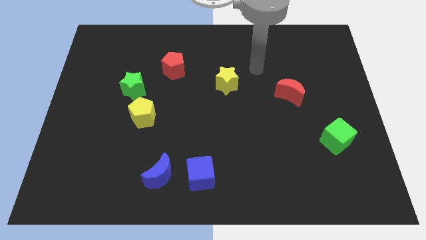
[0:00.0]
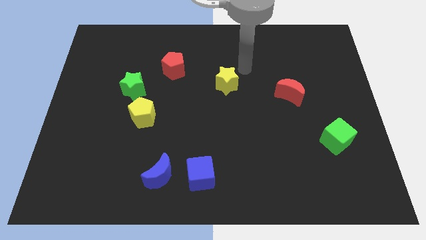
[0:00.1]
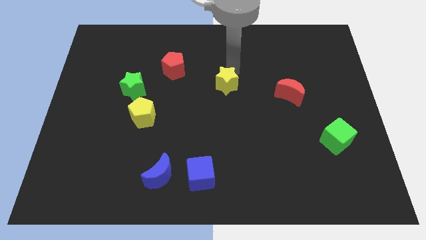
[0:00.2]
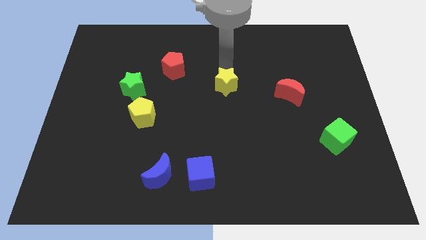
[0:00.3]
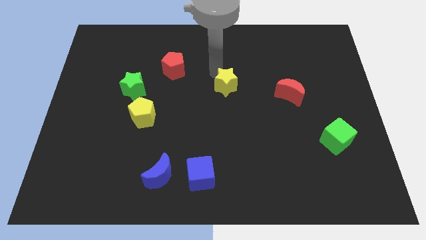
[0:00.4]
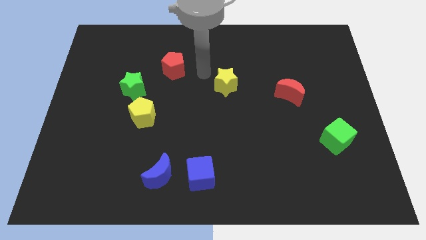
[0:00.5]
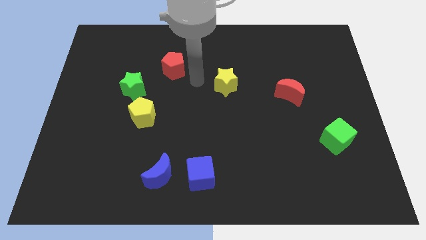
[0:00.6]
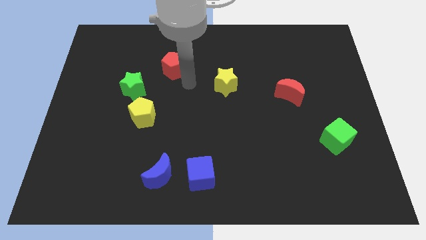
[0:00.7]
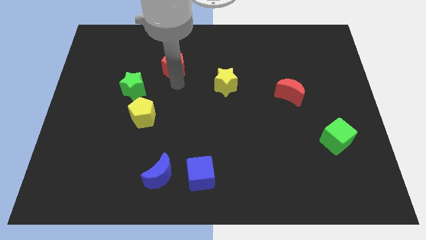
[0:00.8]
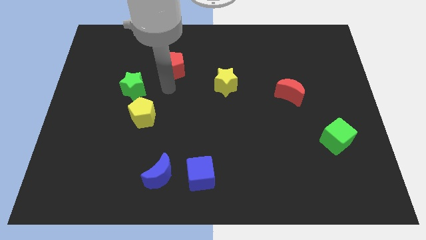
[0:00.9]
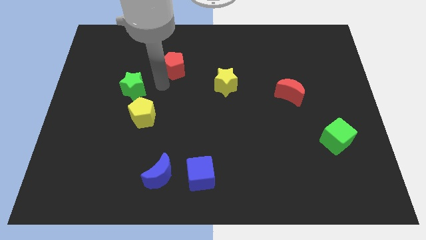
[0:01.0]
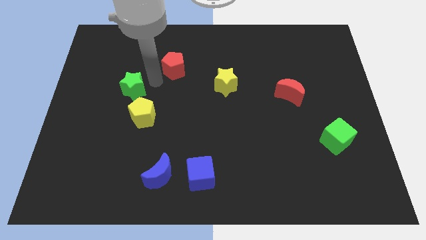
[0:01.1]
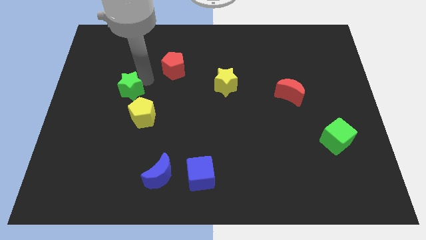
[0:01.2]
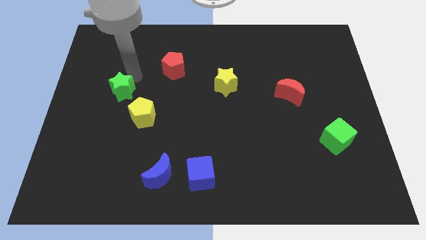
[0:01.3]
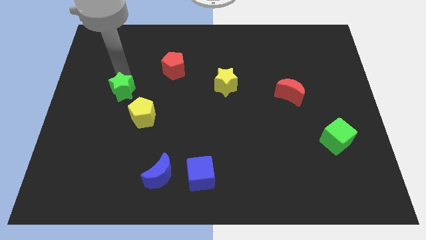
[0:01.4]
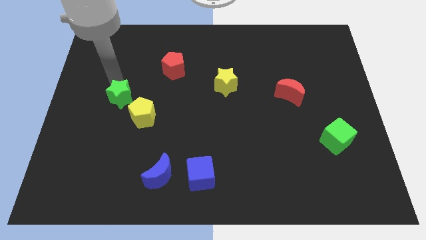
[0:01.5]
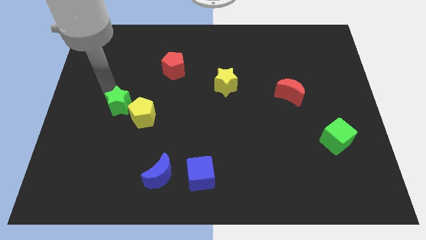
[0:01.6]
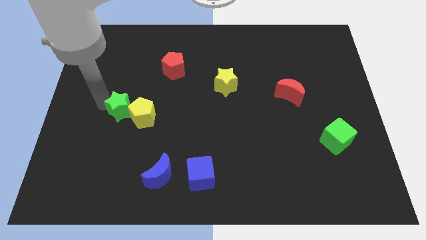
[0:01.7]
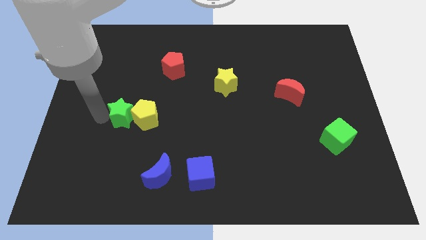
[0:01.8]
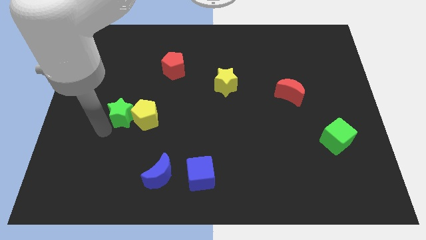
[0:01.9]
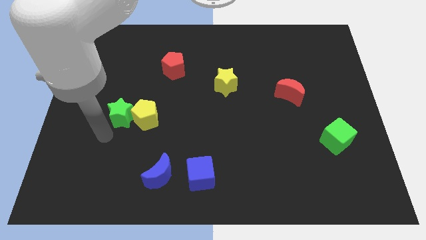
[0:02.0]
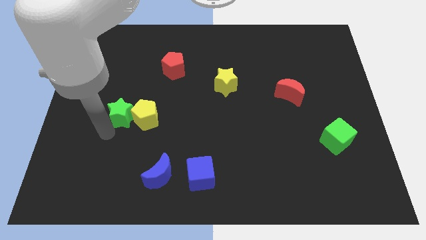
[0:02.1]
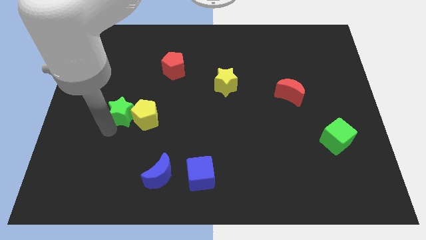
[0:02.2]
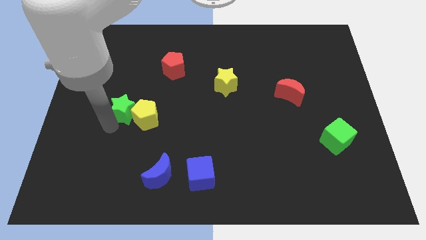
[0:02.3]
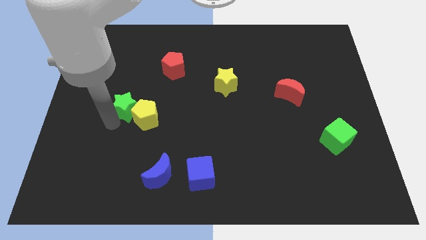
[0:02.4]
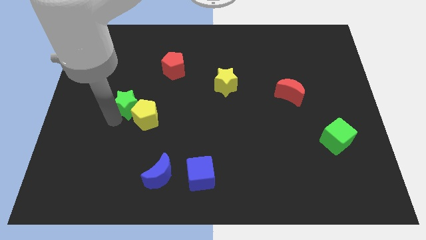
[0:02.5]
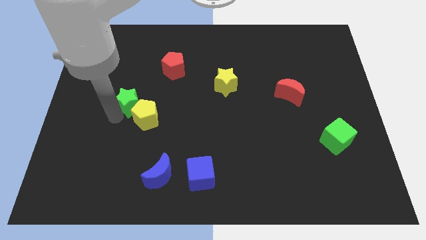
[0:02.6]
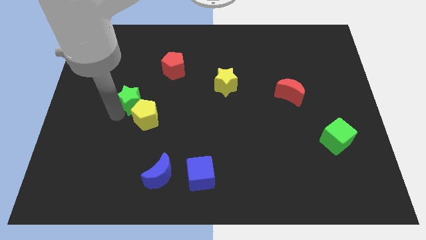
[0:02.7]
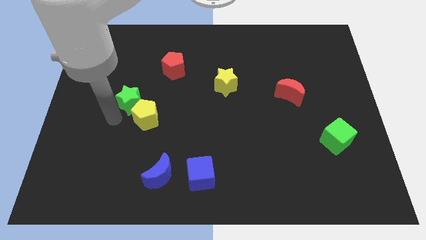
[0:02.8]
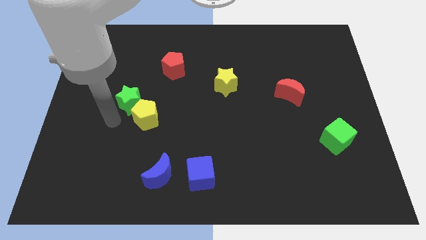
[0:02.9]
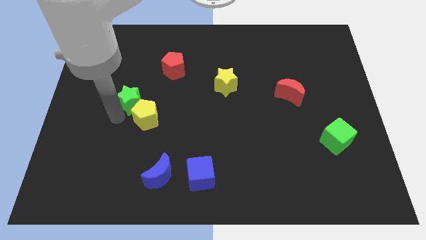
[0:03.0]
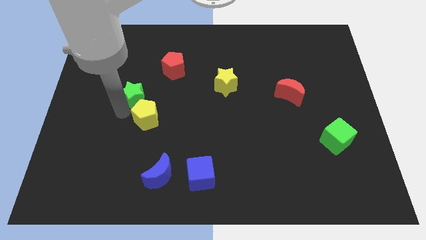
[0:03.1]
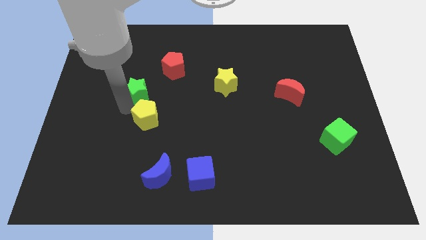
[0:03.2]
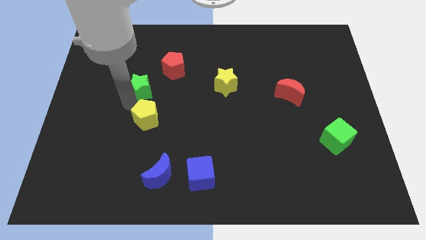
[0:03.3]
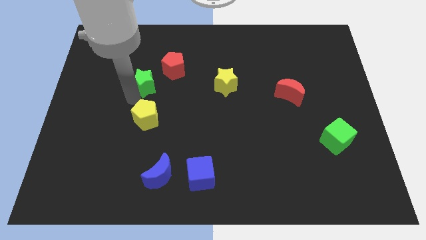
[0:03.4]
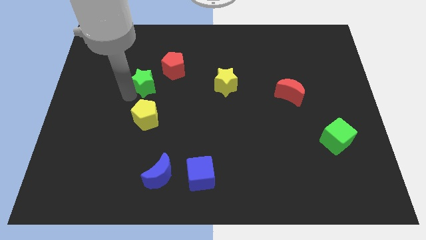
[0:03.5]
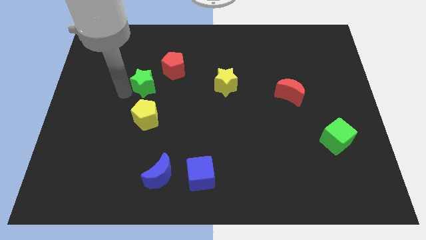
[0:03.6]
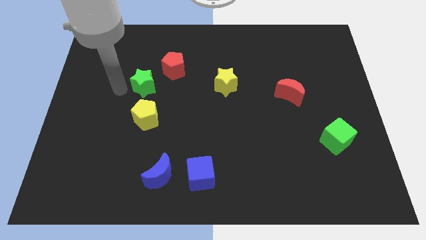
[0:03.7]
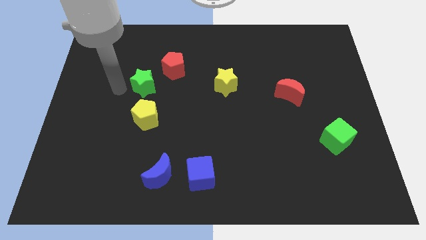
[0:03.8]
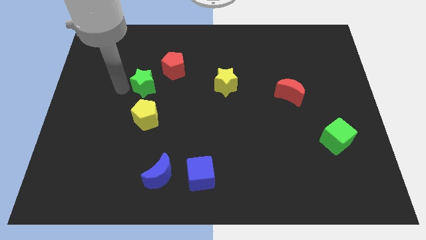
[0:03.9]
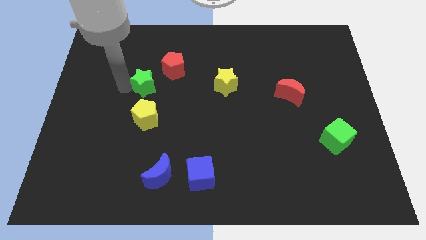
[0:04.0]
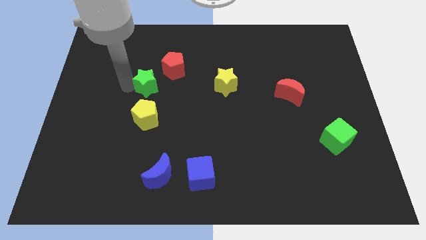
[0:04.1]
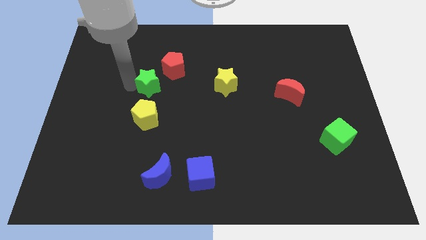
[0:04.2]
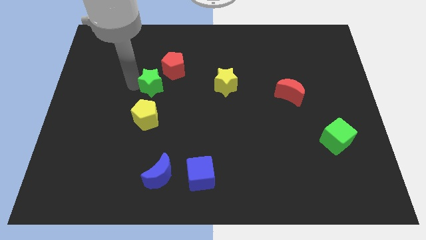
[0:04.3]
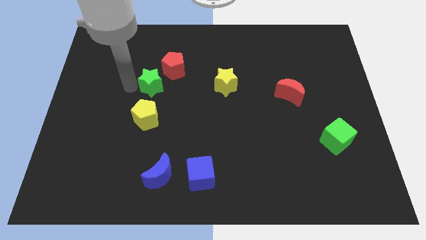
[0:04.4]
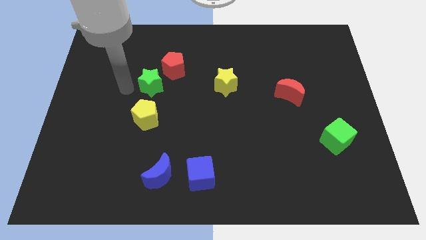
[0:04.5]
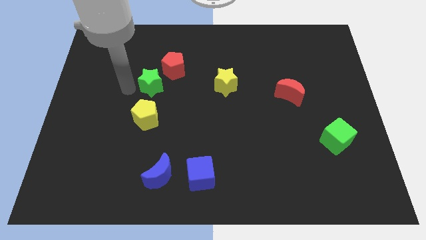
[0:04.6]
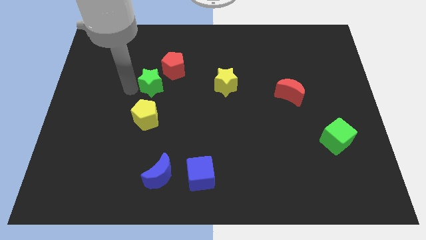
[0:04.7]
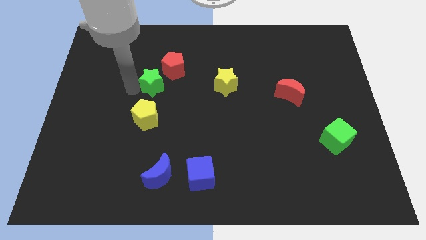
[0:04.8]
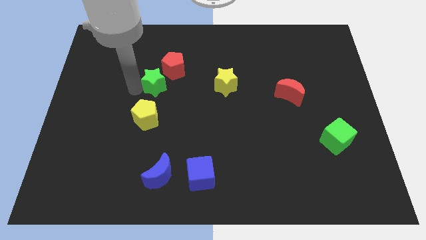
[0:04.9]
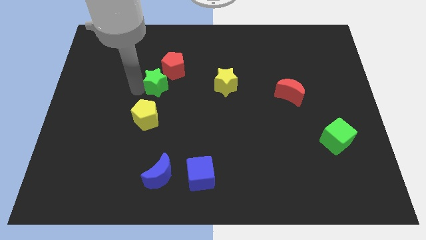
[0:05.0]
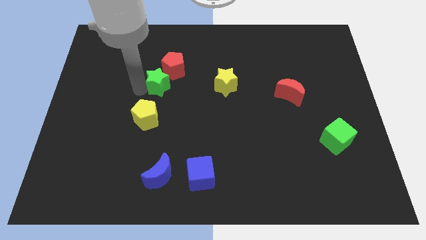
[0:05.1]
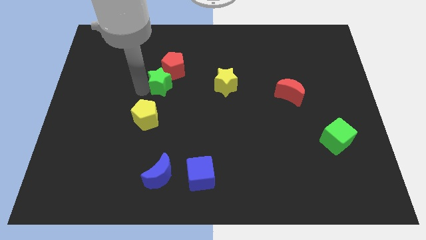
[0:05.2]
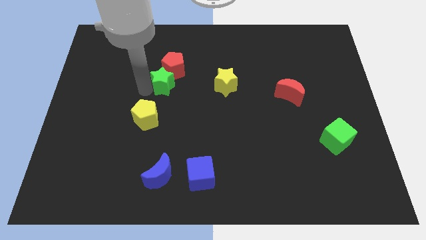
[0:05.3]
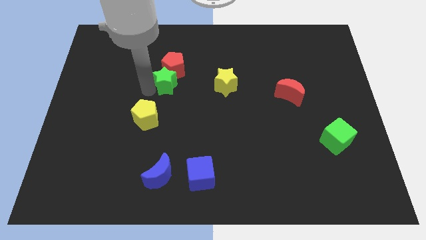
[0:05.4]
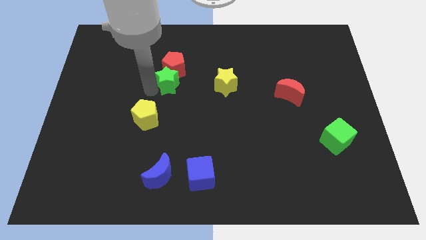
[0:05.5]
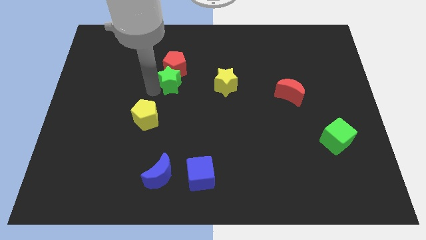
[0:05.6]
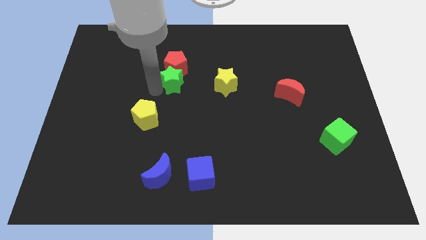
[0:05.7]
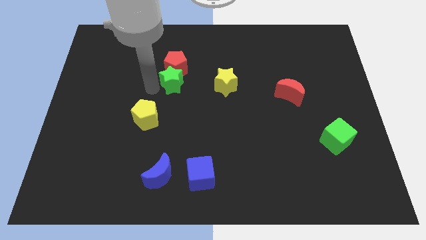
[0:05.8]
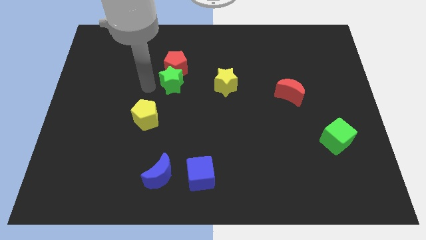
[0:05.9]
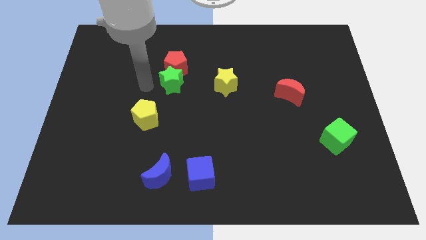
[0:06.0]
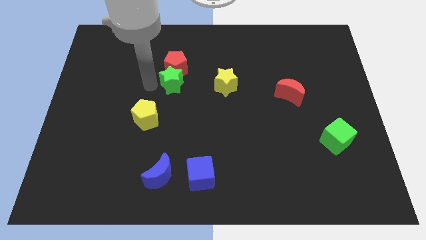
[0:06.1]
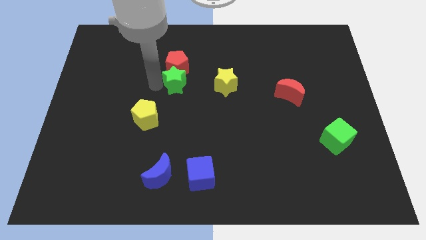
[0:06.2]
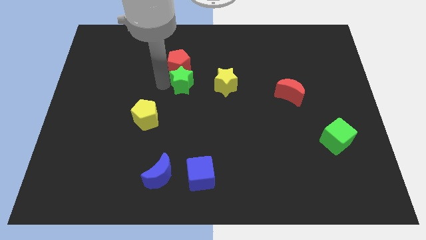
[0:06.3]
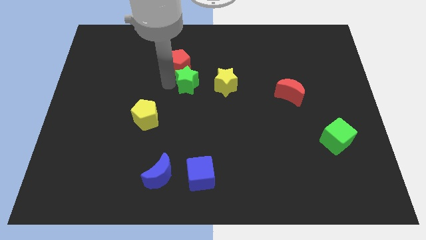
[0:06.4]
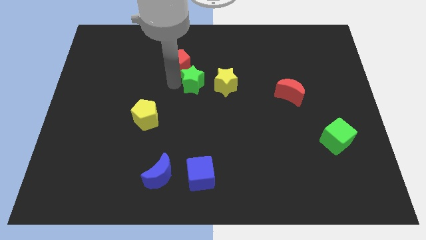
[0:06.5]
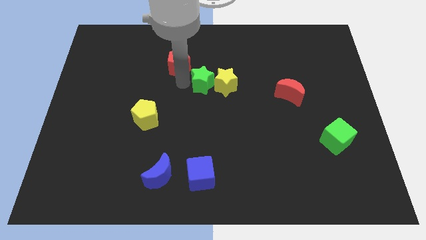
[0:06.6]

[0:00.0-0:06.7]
push the green star next to the yellow star

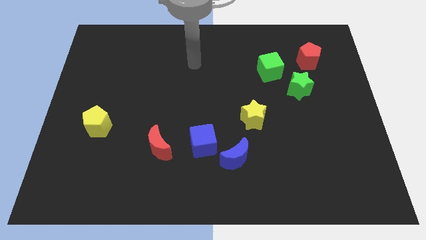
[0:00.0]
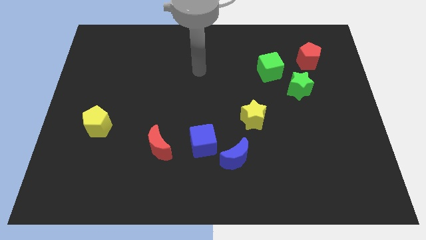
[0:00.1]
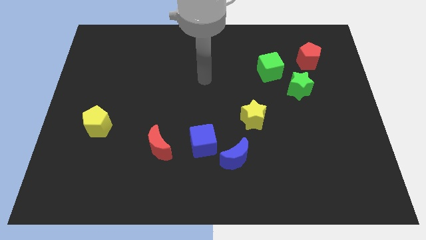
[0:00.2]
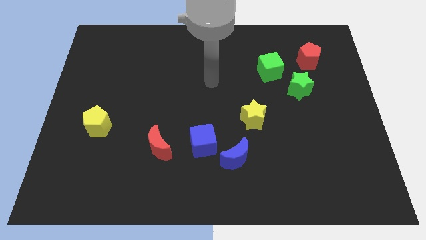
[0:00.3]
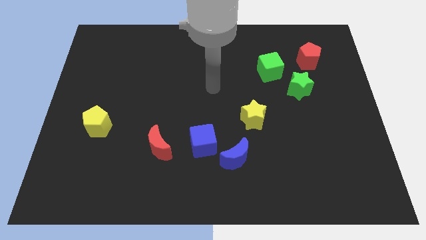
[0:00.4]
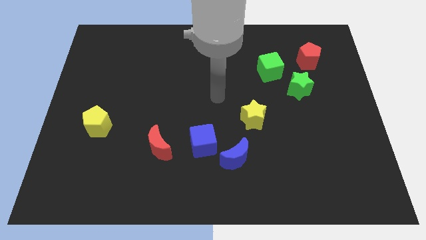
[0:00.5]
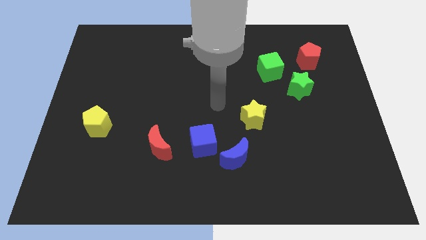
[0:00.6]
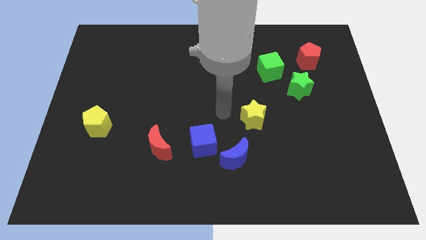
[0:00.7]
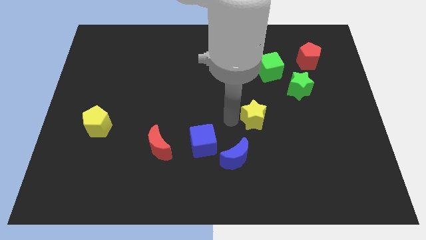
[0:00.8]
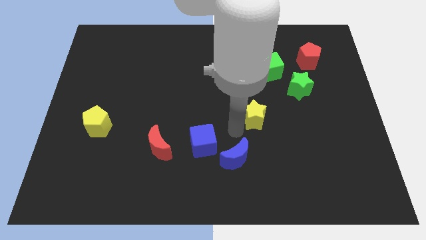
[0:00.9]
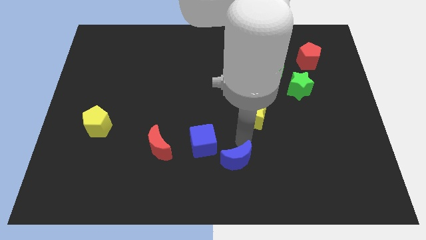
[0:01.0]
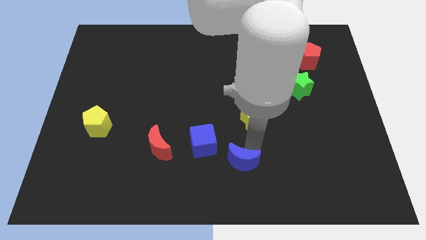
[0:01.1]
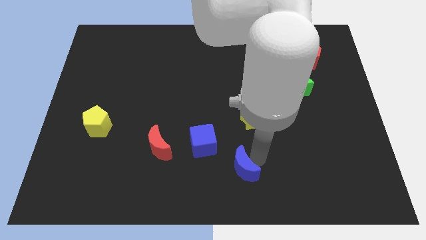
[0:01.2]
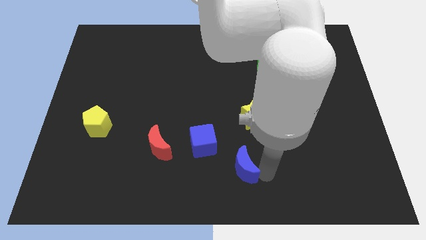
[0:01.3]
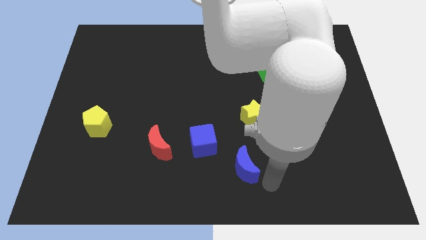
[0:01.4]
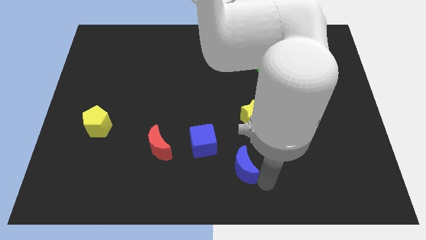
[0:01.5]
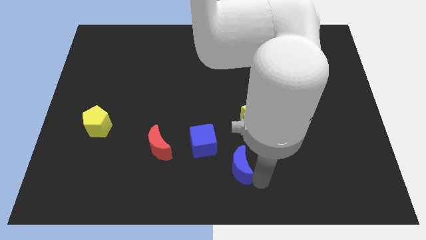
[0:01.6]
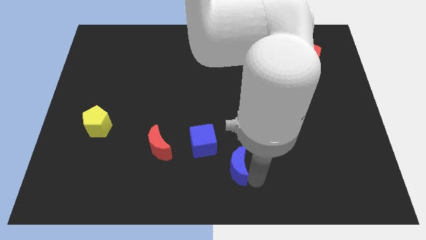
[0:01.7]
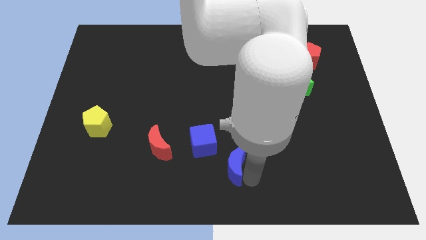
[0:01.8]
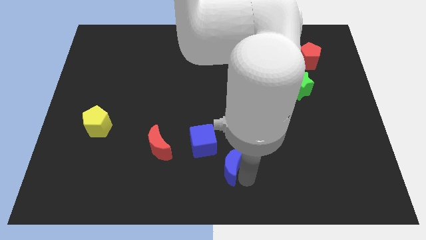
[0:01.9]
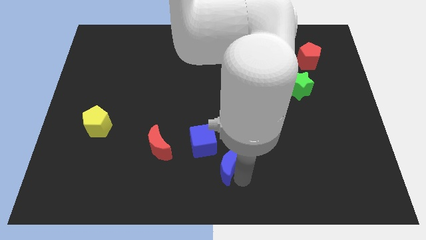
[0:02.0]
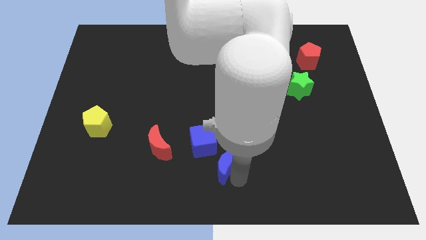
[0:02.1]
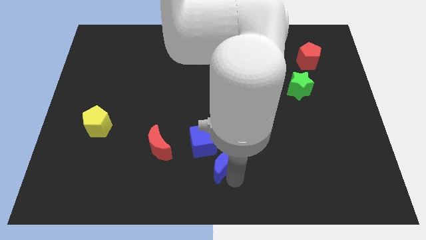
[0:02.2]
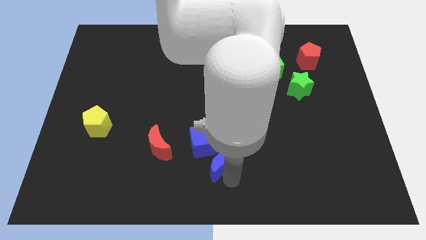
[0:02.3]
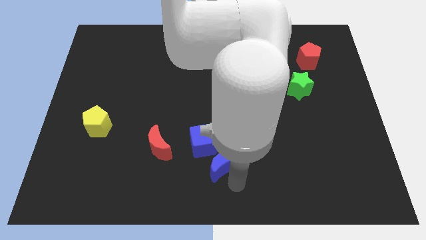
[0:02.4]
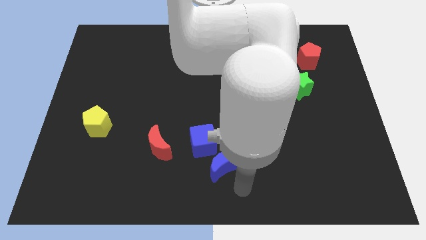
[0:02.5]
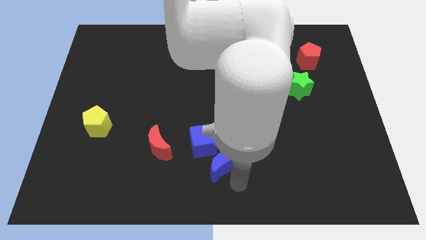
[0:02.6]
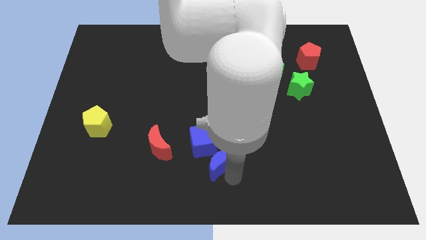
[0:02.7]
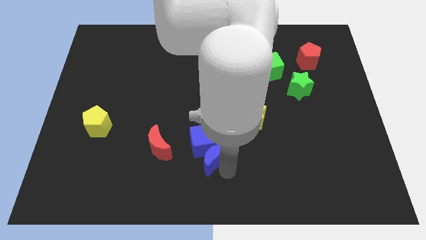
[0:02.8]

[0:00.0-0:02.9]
slide the blue moon to the blue cube
